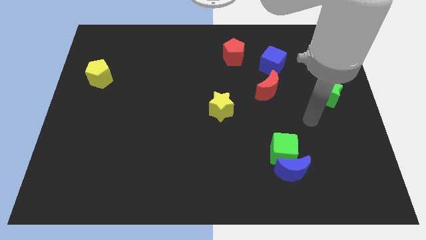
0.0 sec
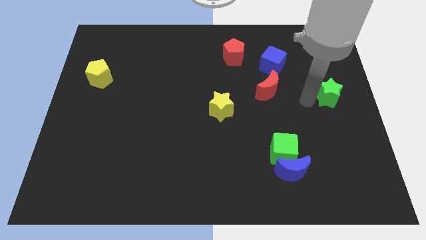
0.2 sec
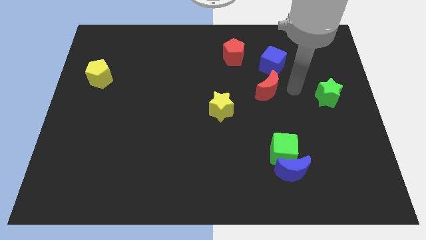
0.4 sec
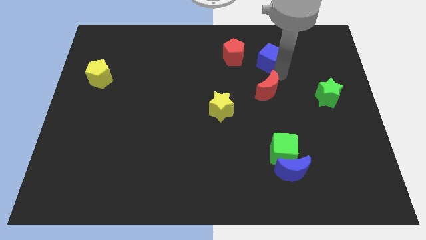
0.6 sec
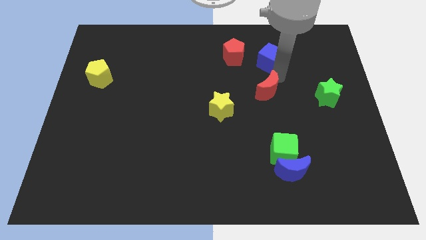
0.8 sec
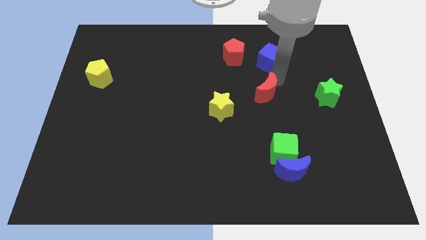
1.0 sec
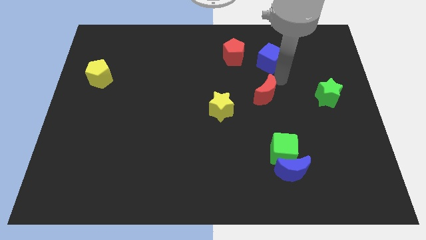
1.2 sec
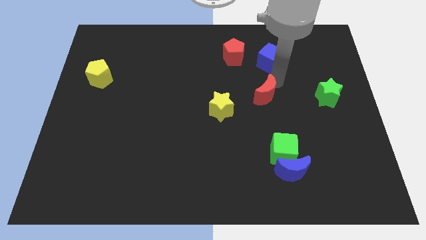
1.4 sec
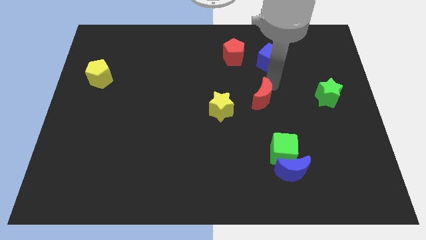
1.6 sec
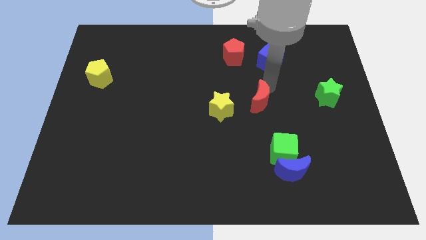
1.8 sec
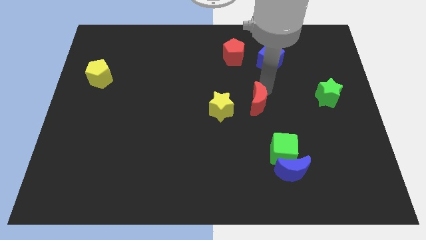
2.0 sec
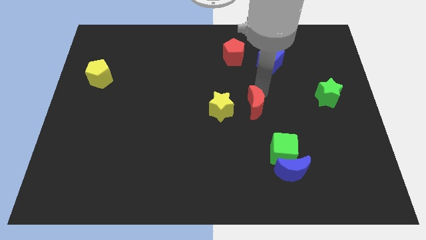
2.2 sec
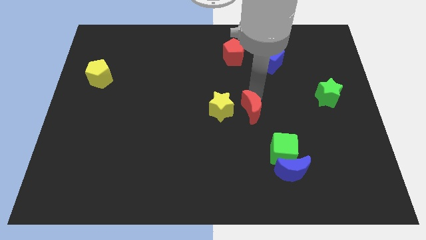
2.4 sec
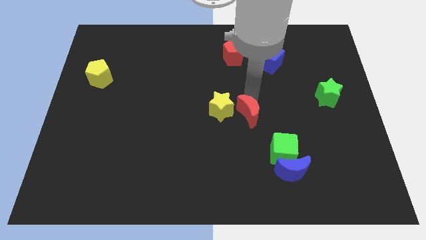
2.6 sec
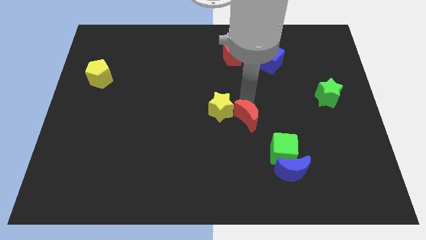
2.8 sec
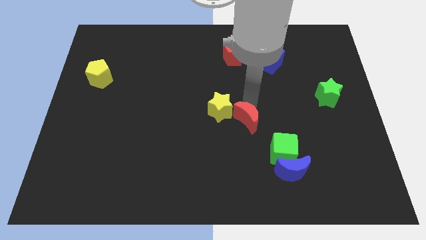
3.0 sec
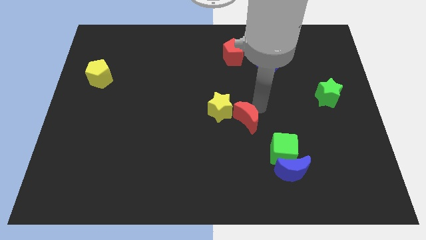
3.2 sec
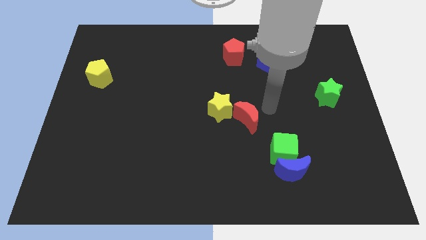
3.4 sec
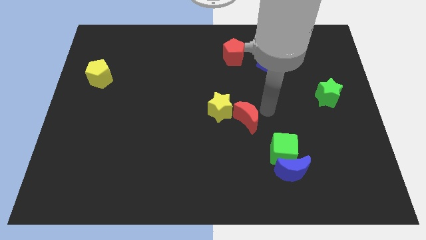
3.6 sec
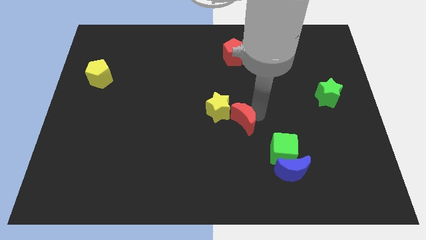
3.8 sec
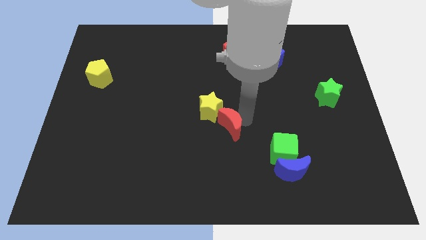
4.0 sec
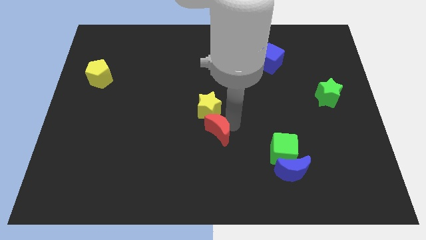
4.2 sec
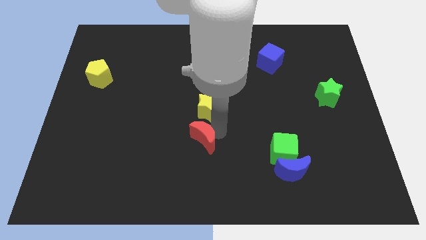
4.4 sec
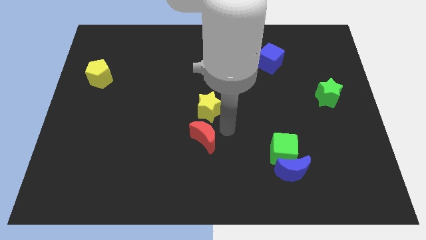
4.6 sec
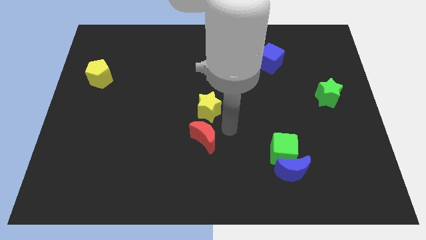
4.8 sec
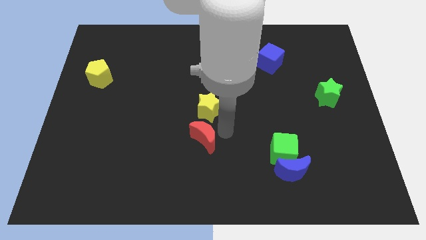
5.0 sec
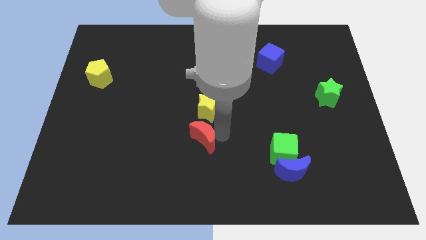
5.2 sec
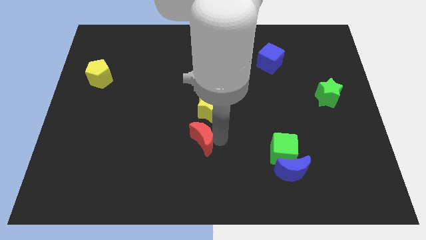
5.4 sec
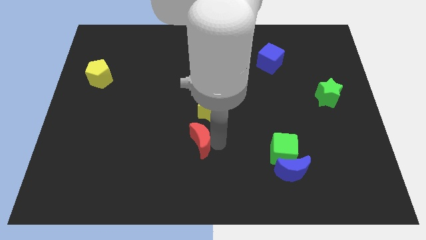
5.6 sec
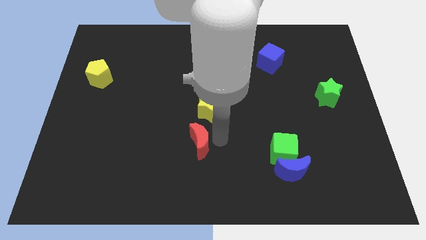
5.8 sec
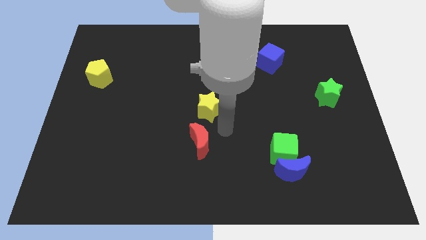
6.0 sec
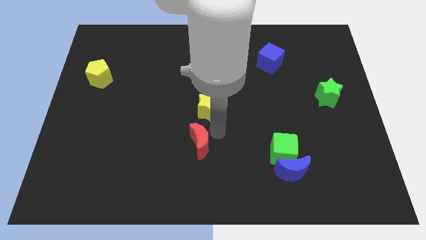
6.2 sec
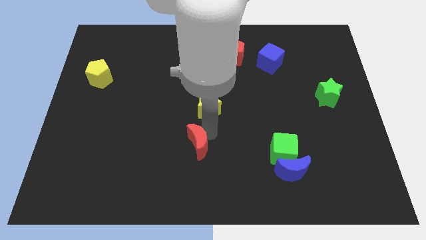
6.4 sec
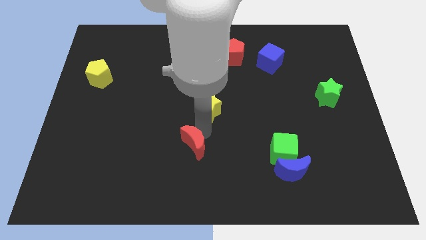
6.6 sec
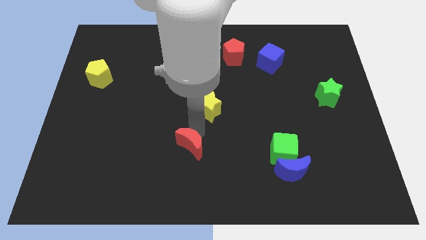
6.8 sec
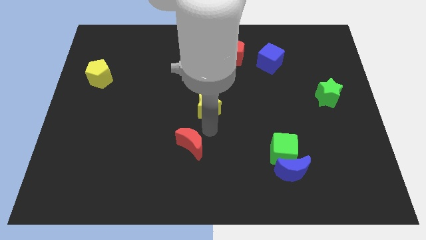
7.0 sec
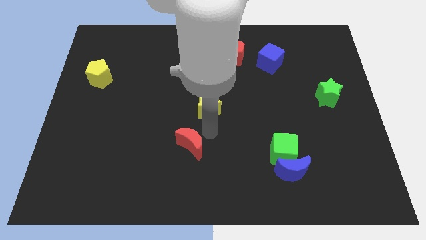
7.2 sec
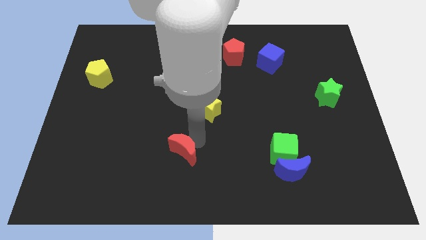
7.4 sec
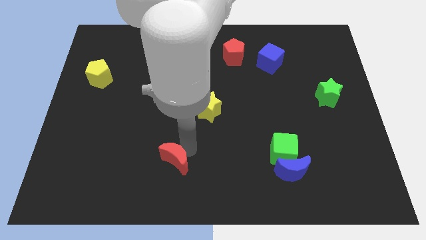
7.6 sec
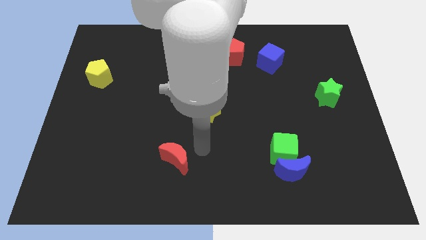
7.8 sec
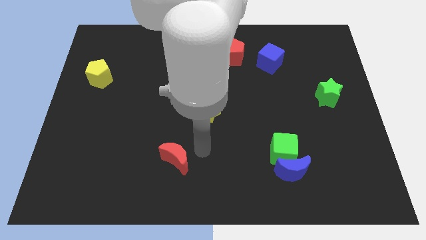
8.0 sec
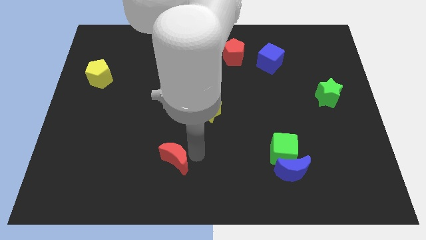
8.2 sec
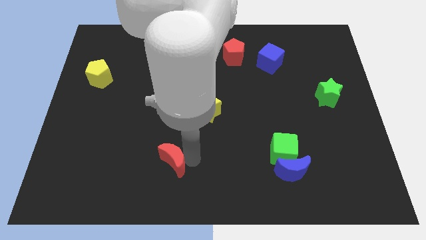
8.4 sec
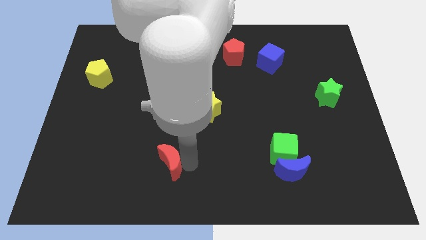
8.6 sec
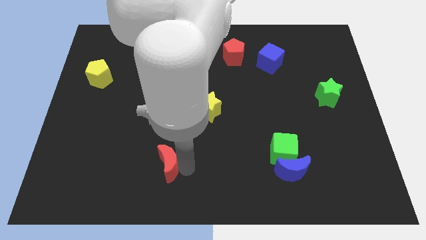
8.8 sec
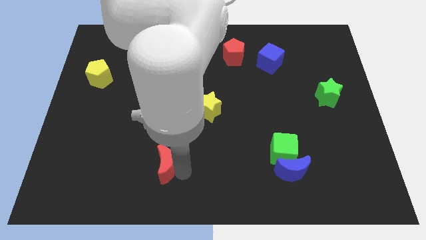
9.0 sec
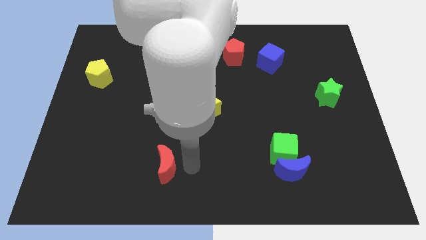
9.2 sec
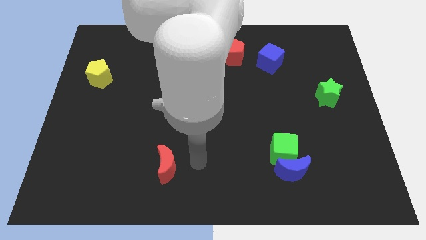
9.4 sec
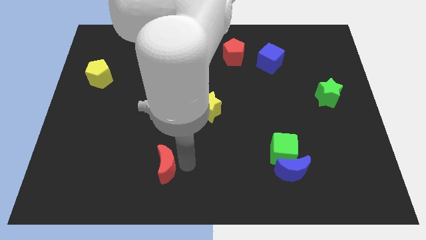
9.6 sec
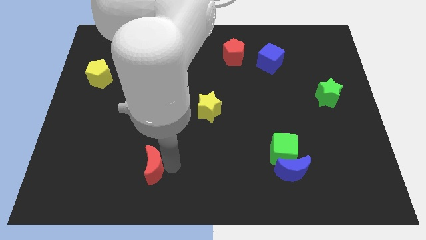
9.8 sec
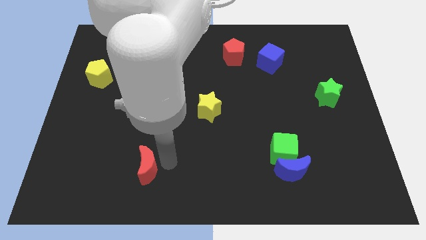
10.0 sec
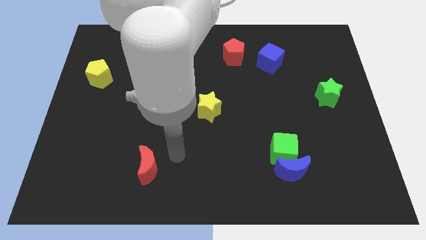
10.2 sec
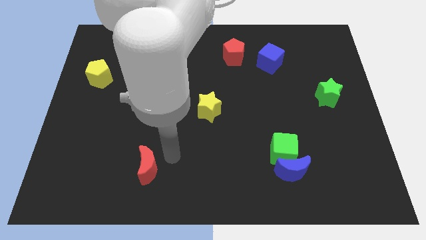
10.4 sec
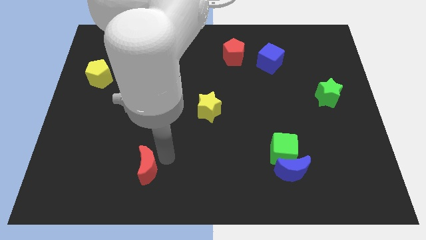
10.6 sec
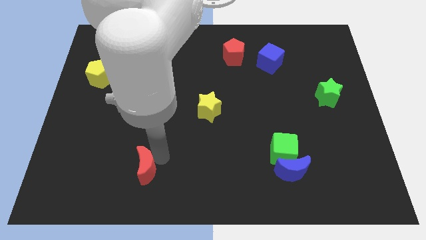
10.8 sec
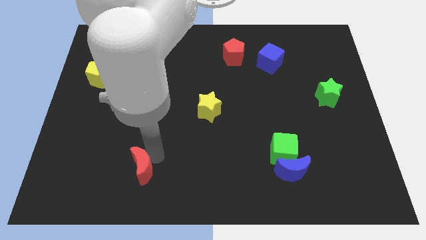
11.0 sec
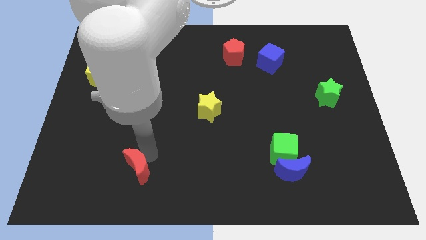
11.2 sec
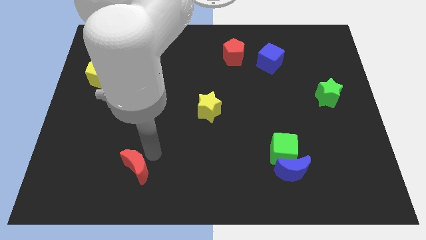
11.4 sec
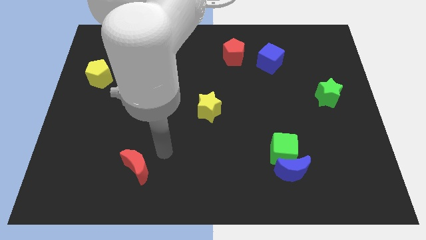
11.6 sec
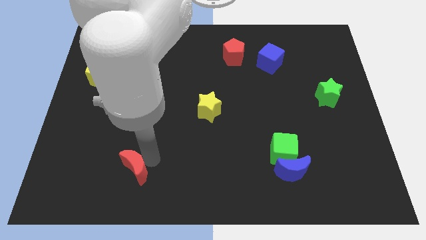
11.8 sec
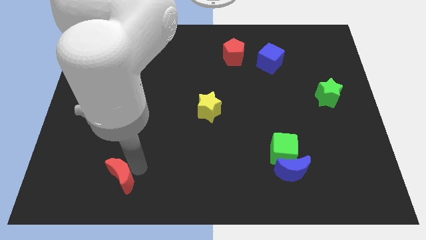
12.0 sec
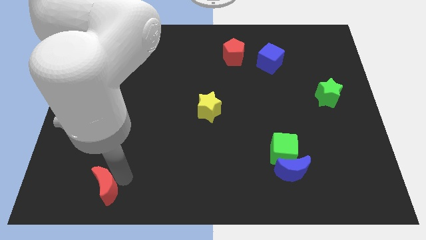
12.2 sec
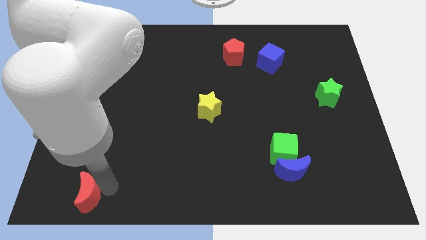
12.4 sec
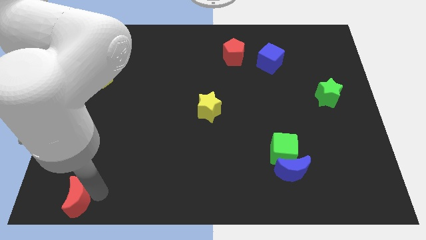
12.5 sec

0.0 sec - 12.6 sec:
push the red moon to the bottom left corner

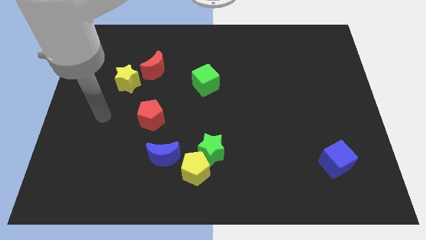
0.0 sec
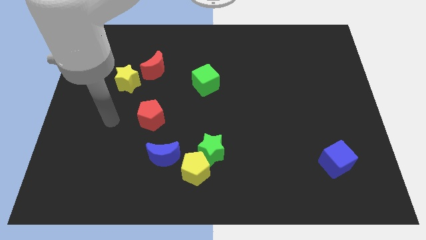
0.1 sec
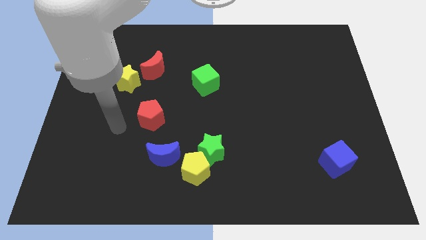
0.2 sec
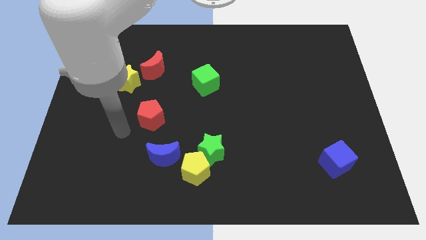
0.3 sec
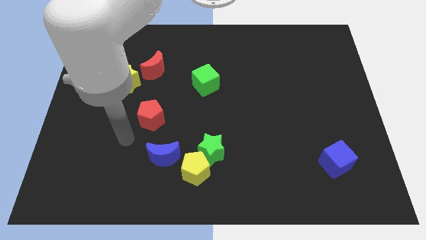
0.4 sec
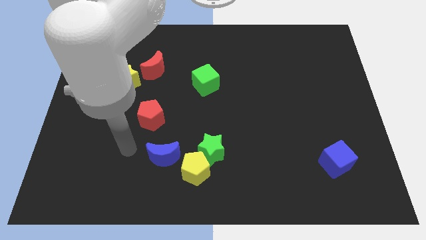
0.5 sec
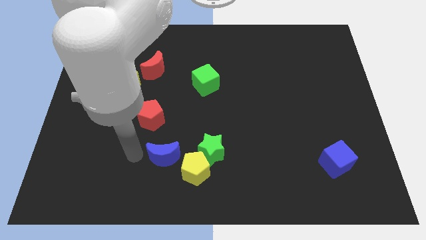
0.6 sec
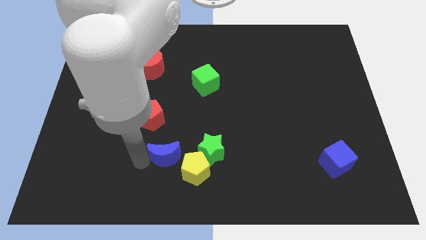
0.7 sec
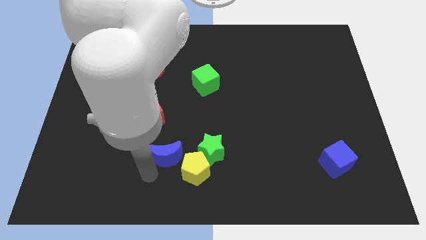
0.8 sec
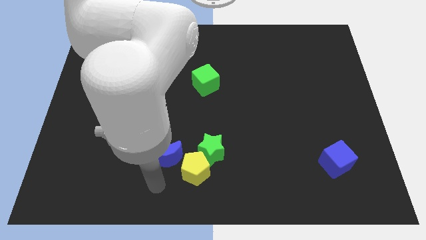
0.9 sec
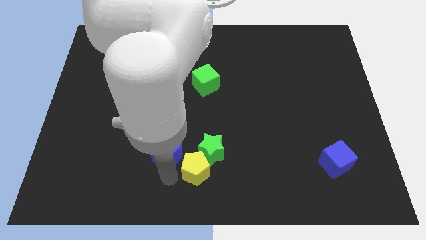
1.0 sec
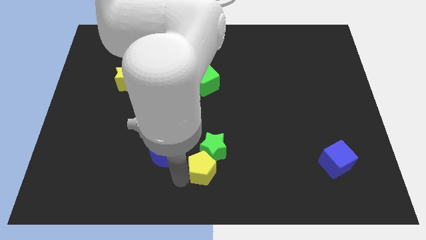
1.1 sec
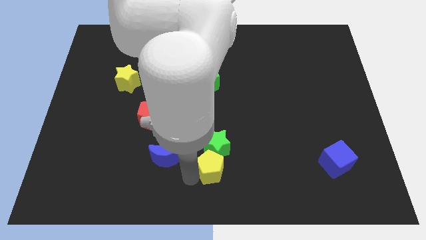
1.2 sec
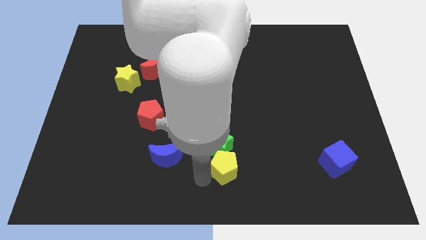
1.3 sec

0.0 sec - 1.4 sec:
move the green star to the middle of the board
